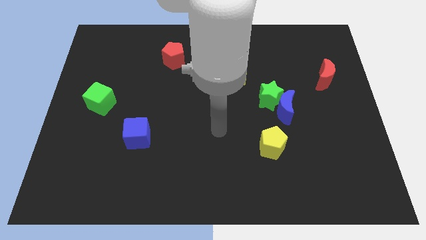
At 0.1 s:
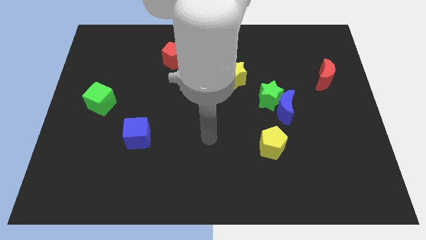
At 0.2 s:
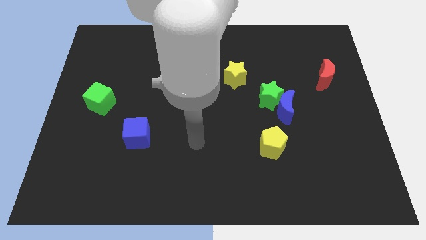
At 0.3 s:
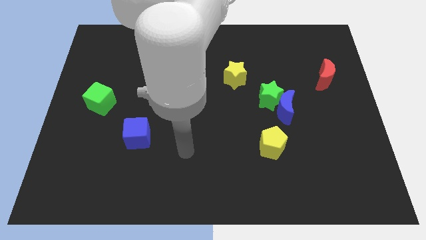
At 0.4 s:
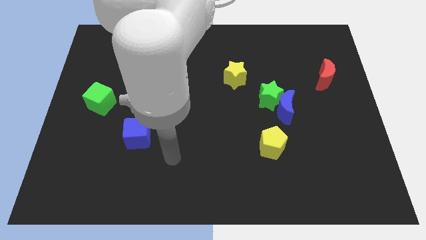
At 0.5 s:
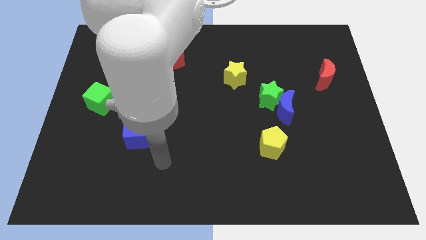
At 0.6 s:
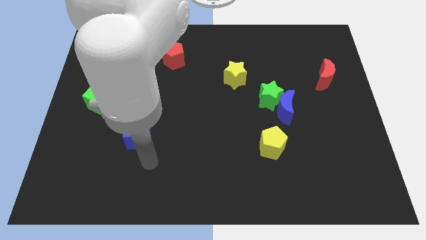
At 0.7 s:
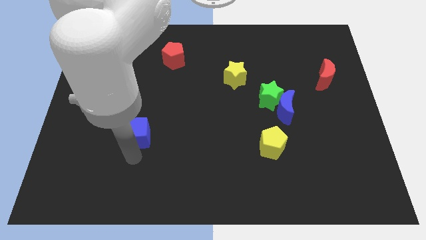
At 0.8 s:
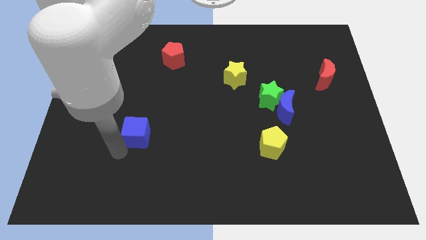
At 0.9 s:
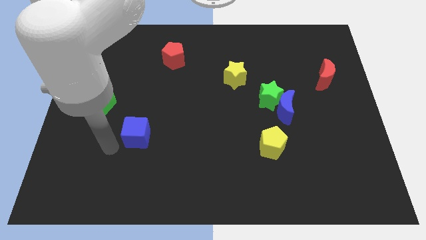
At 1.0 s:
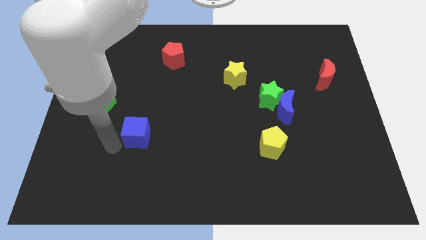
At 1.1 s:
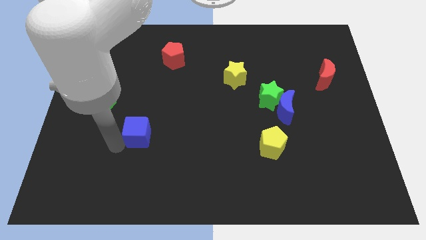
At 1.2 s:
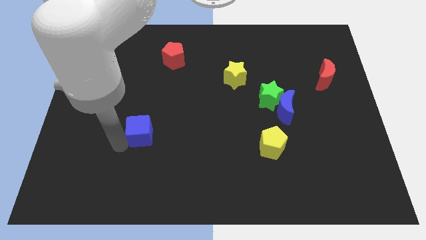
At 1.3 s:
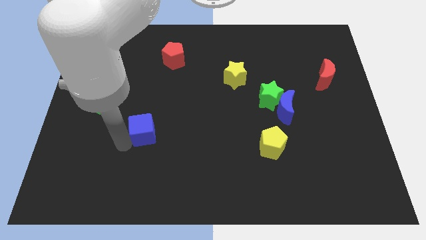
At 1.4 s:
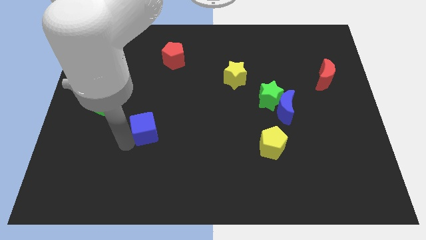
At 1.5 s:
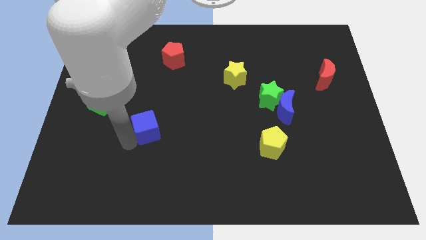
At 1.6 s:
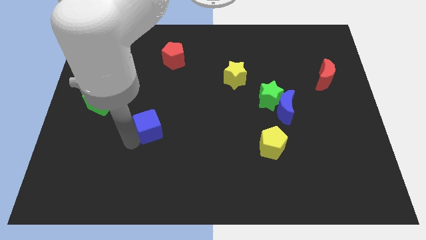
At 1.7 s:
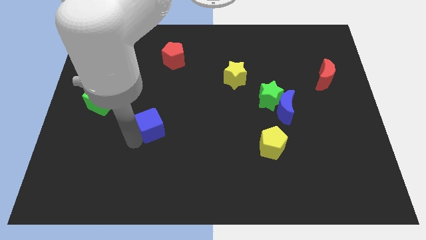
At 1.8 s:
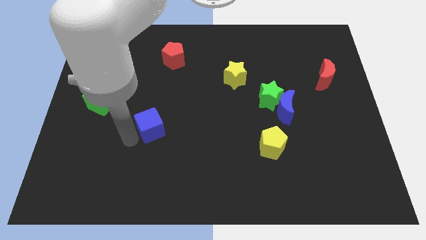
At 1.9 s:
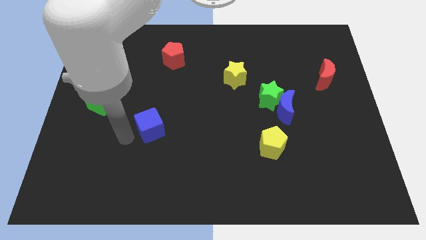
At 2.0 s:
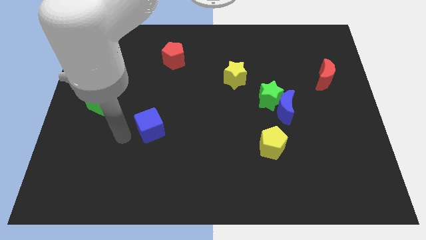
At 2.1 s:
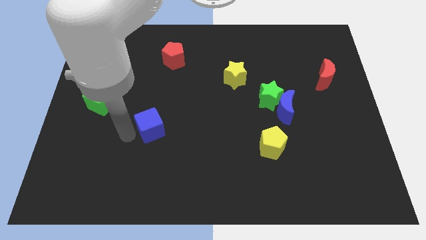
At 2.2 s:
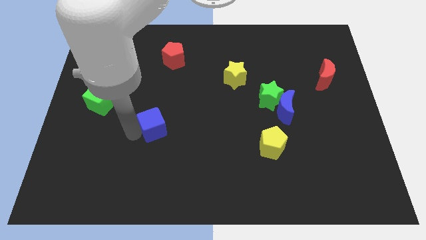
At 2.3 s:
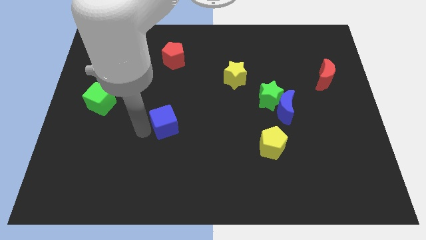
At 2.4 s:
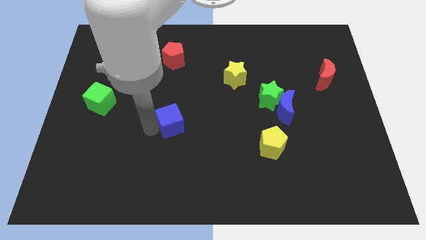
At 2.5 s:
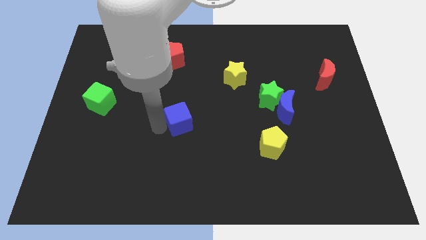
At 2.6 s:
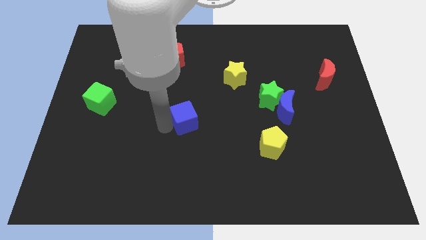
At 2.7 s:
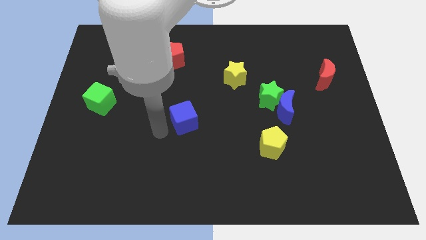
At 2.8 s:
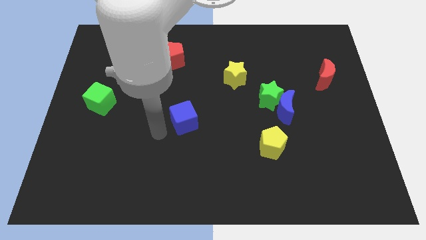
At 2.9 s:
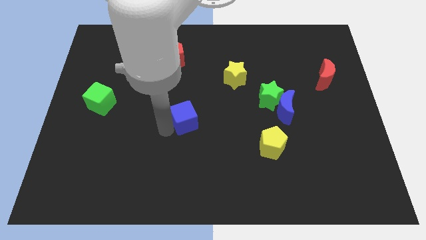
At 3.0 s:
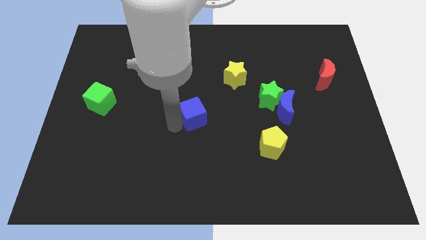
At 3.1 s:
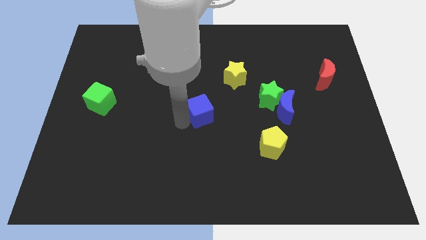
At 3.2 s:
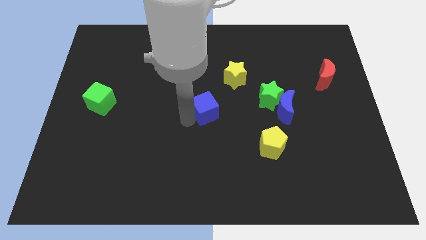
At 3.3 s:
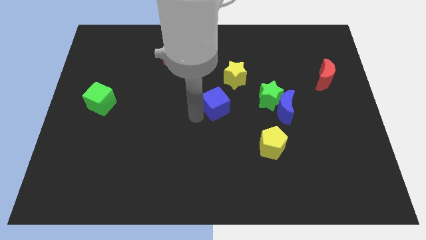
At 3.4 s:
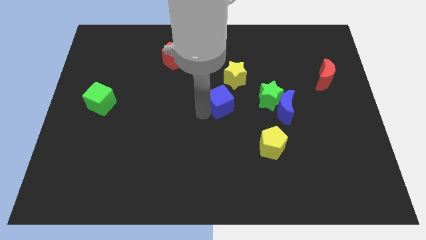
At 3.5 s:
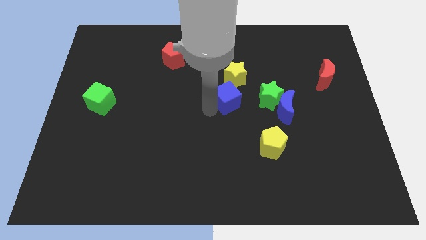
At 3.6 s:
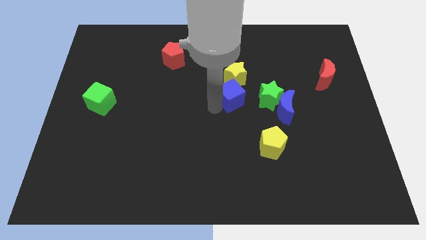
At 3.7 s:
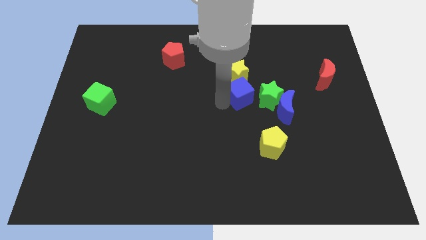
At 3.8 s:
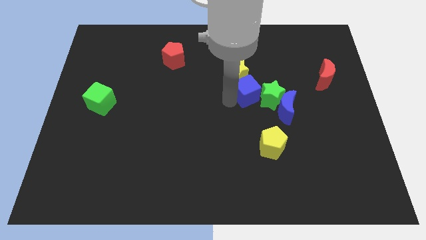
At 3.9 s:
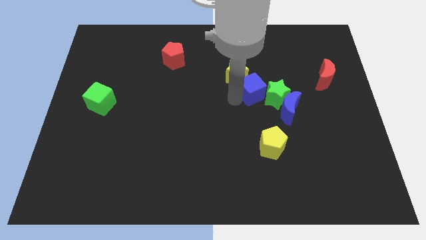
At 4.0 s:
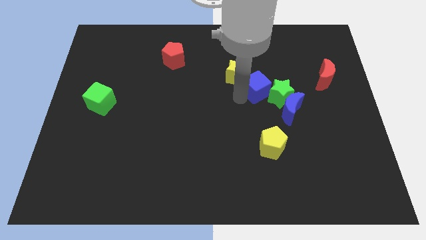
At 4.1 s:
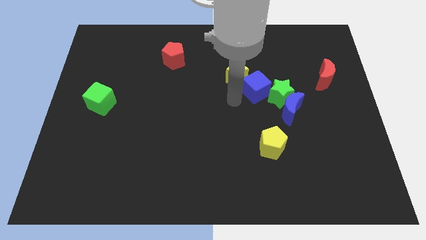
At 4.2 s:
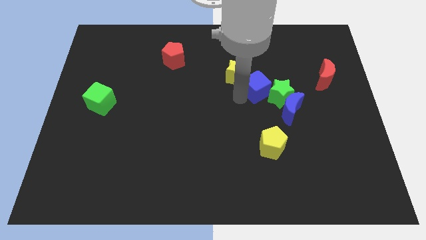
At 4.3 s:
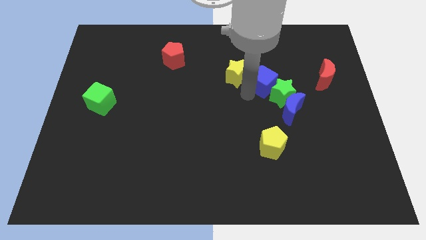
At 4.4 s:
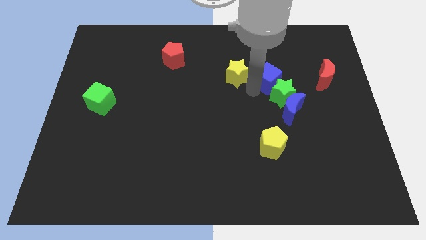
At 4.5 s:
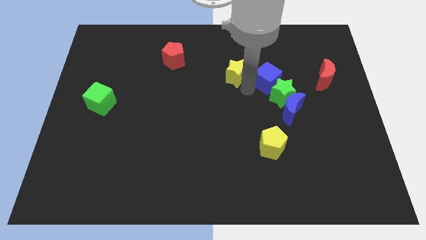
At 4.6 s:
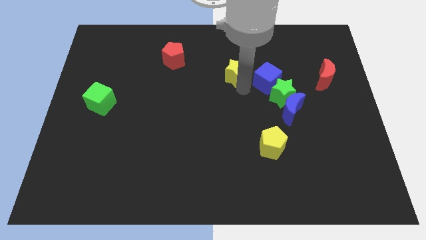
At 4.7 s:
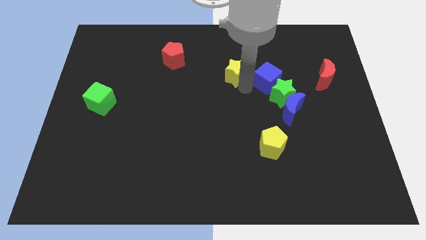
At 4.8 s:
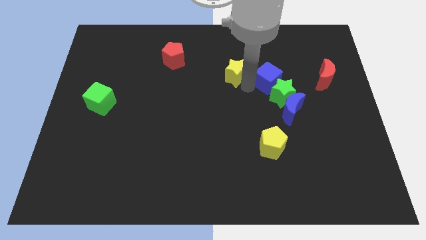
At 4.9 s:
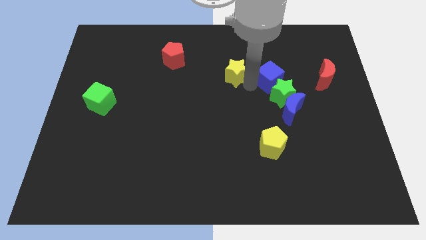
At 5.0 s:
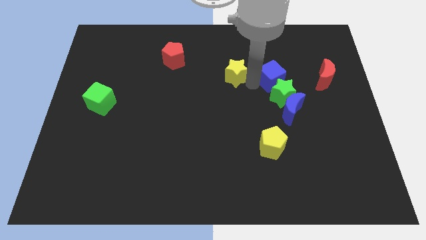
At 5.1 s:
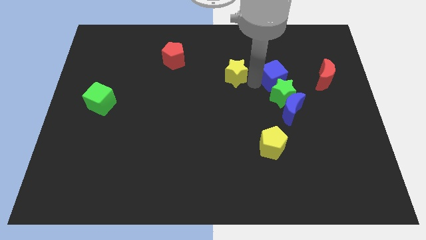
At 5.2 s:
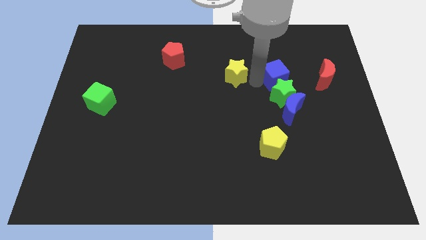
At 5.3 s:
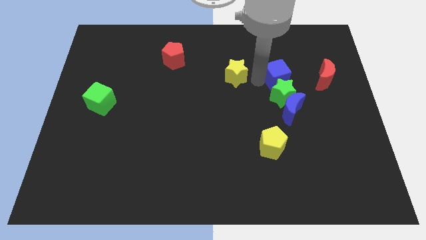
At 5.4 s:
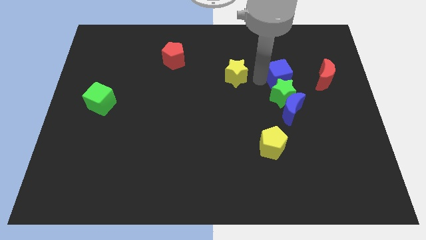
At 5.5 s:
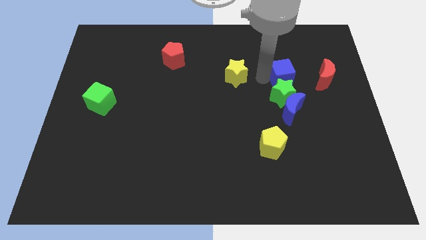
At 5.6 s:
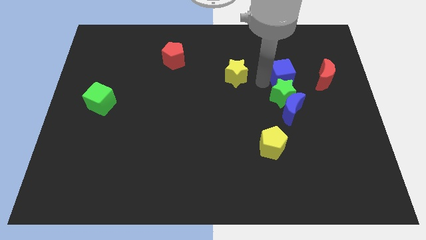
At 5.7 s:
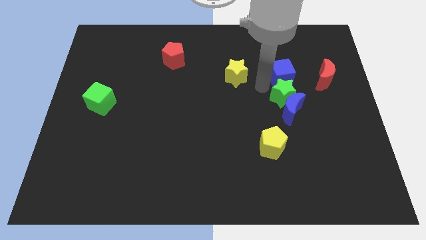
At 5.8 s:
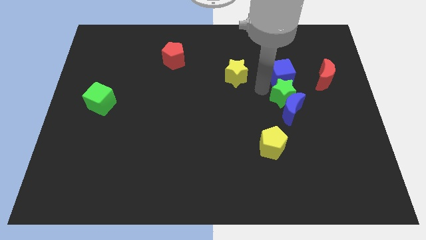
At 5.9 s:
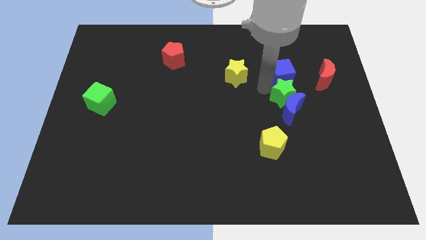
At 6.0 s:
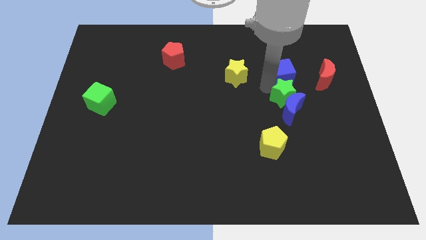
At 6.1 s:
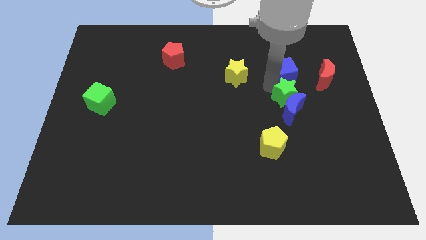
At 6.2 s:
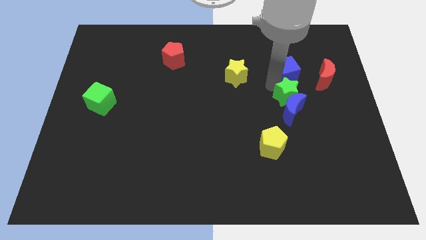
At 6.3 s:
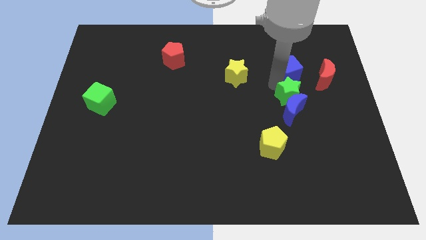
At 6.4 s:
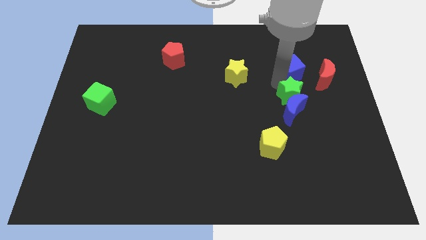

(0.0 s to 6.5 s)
move the blue cube to the top left of the red moon
